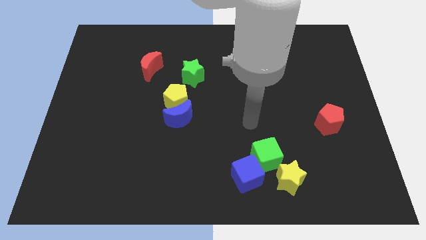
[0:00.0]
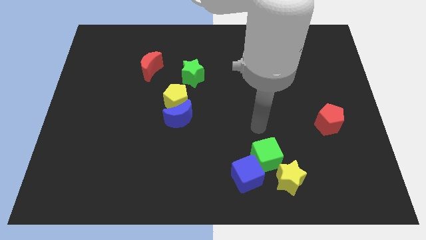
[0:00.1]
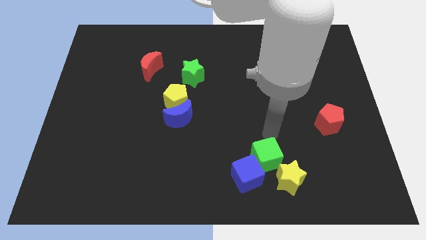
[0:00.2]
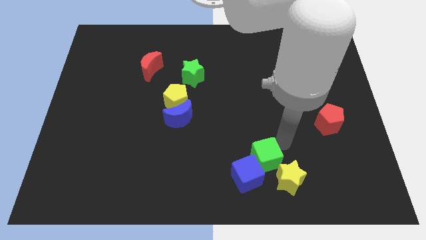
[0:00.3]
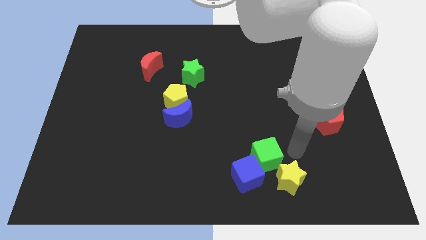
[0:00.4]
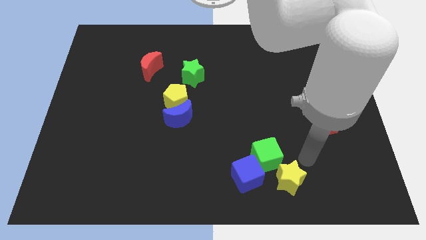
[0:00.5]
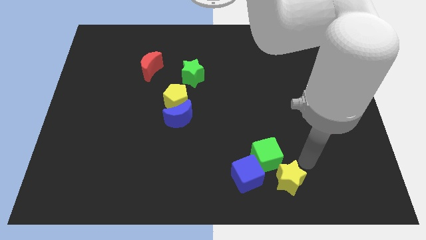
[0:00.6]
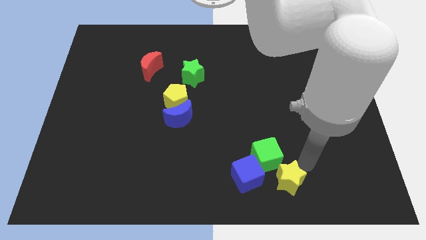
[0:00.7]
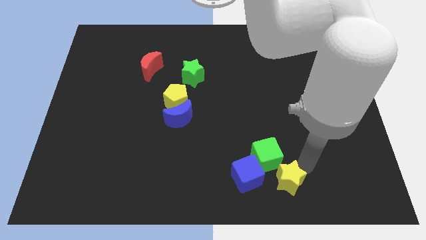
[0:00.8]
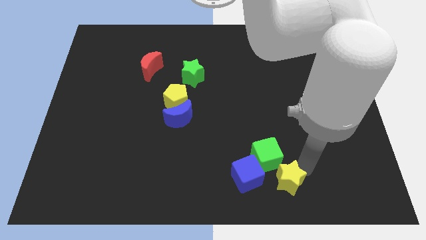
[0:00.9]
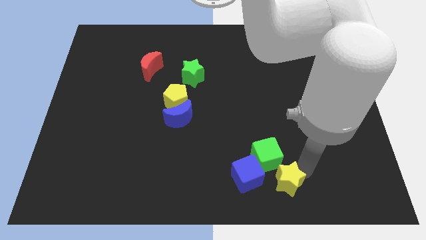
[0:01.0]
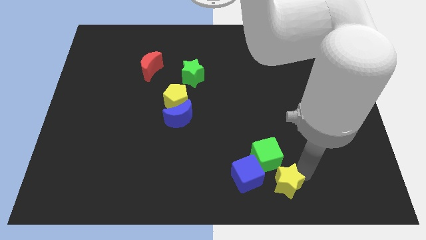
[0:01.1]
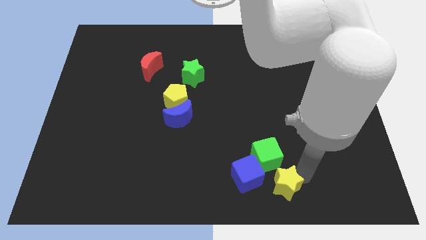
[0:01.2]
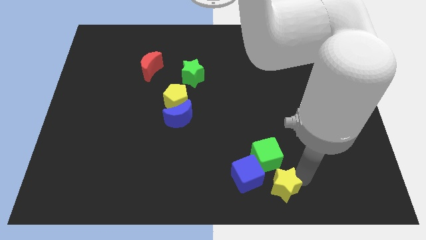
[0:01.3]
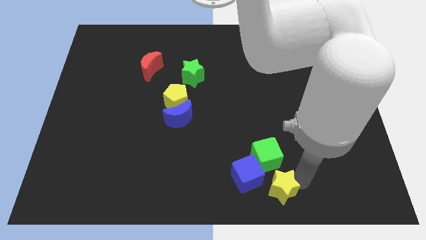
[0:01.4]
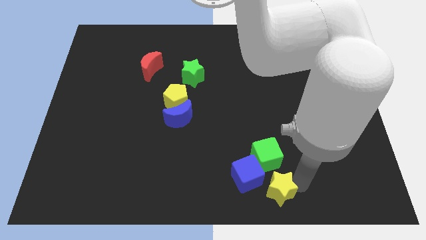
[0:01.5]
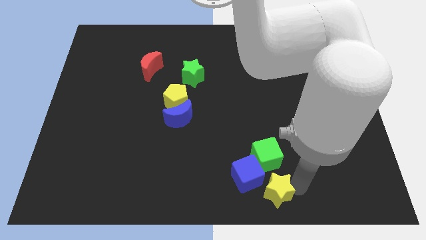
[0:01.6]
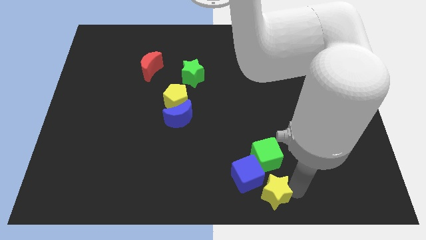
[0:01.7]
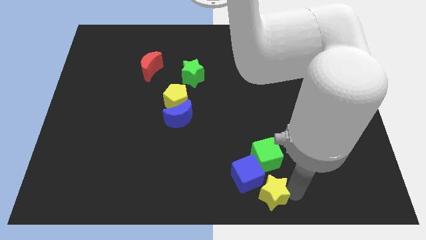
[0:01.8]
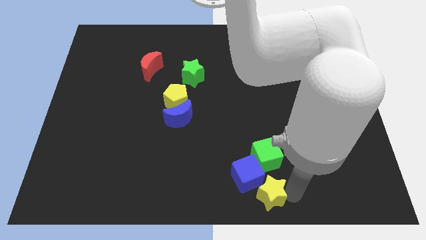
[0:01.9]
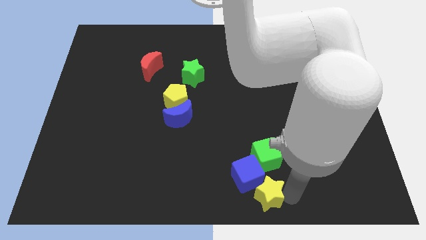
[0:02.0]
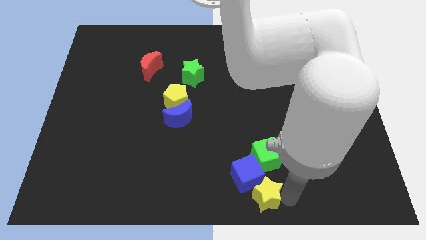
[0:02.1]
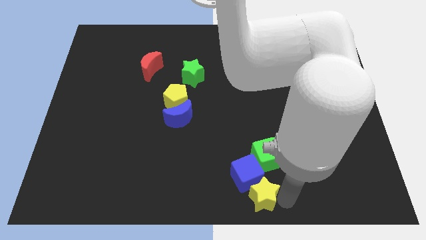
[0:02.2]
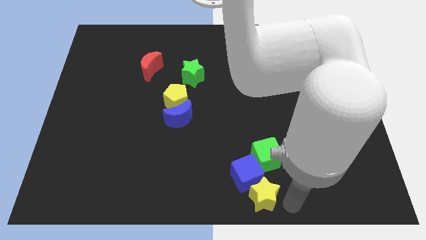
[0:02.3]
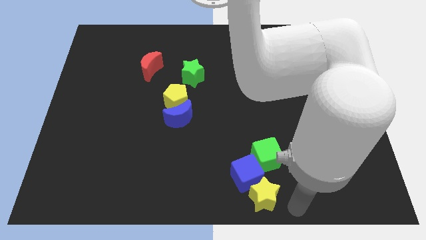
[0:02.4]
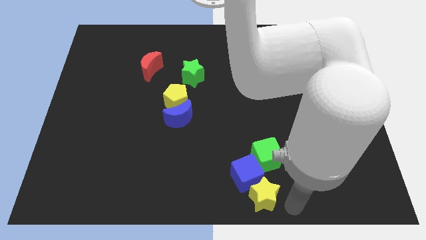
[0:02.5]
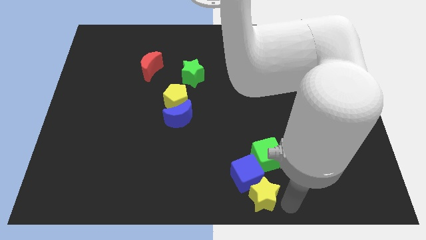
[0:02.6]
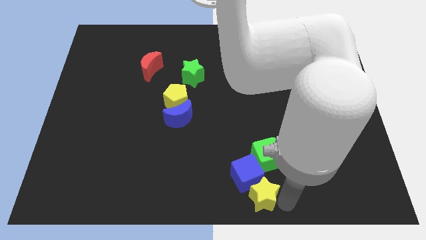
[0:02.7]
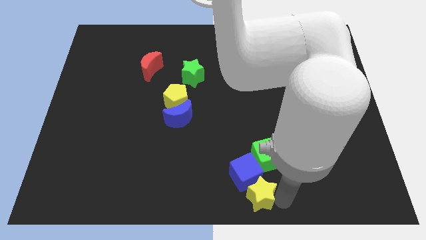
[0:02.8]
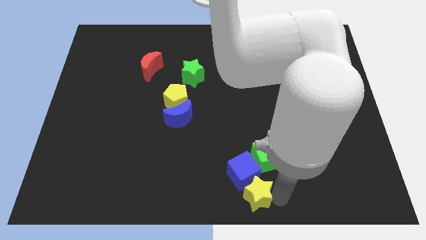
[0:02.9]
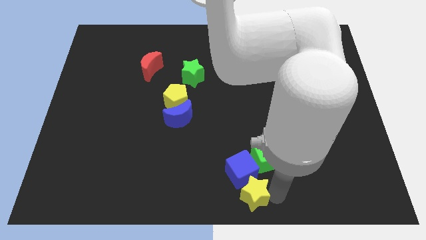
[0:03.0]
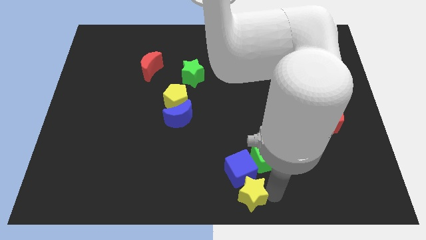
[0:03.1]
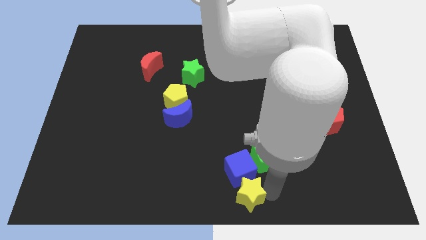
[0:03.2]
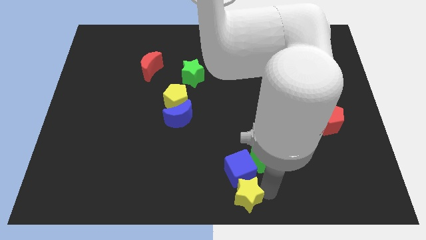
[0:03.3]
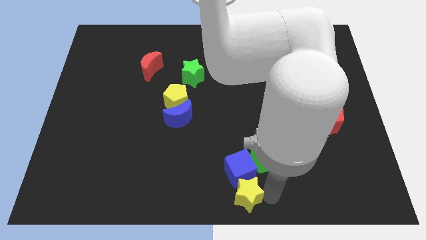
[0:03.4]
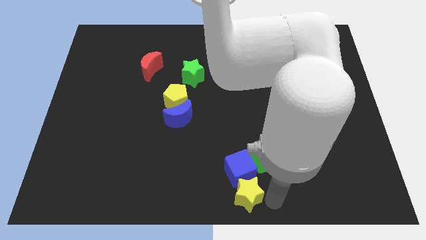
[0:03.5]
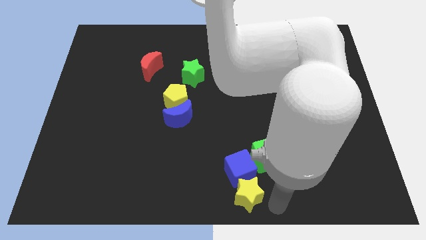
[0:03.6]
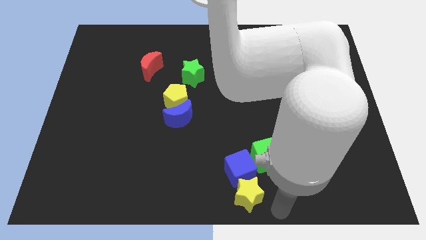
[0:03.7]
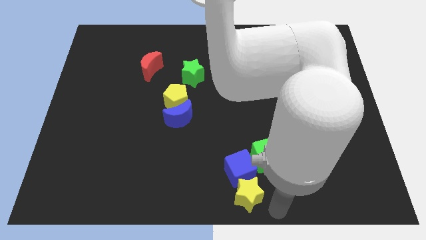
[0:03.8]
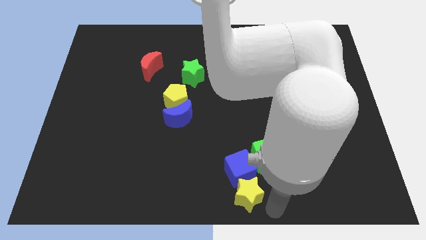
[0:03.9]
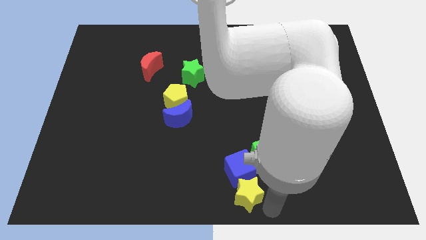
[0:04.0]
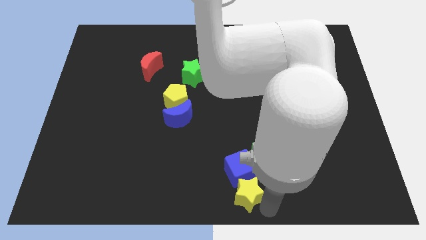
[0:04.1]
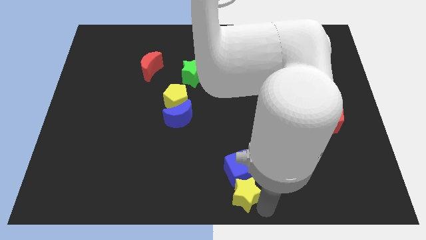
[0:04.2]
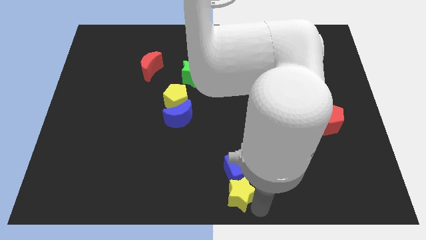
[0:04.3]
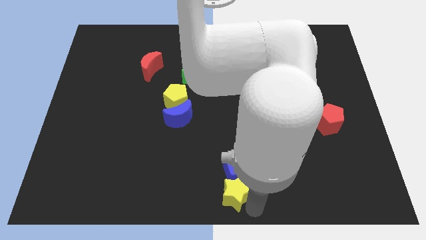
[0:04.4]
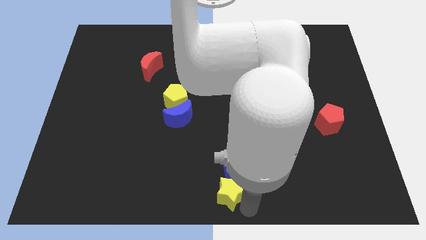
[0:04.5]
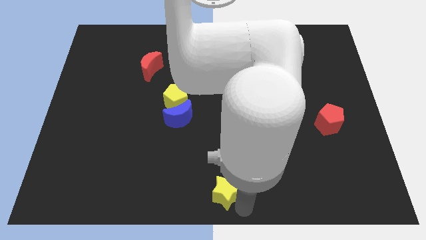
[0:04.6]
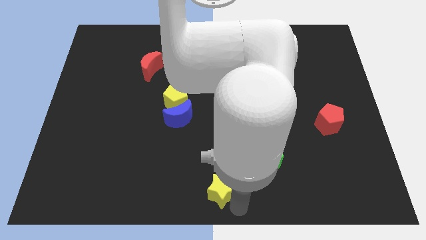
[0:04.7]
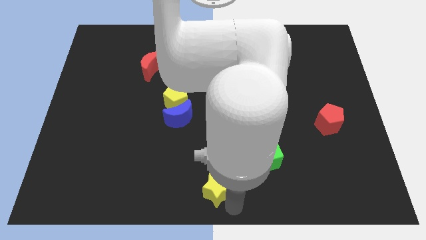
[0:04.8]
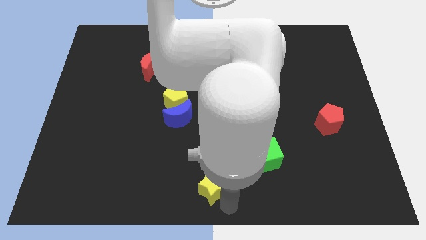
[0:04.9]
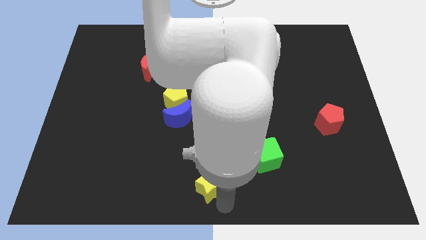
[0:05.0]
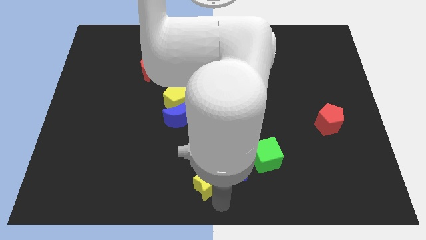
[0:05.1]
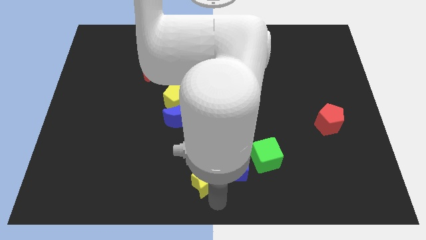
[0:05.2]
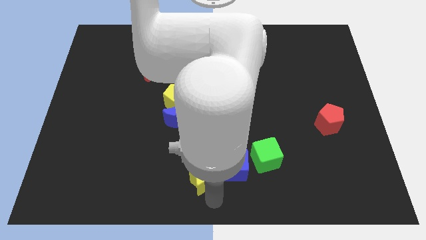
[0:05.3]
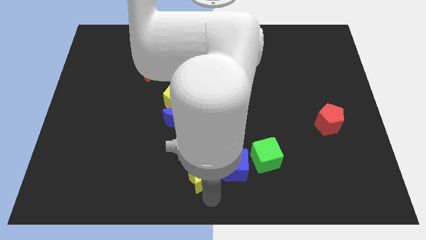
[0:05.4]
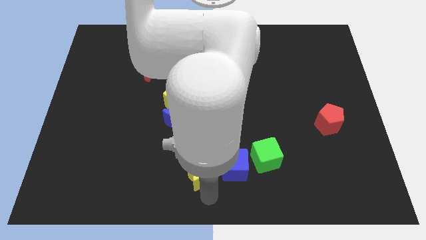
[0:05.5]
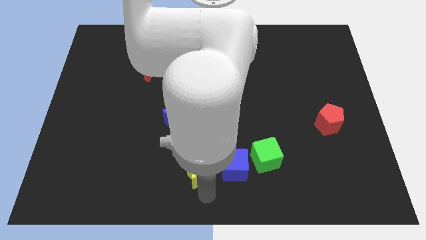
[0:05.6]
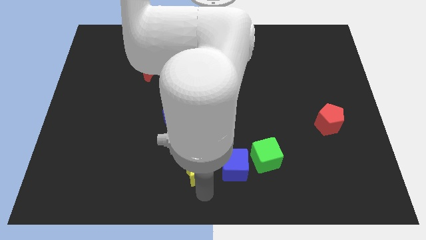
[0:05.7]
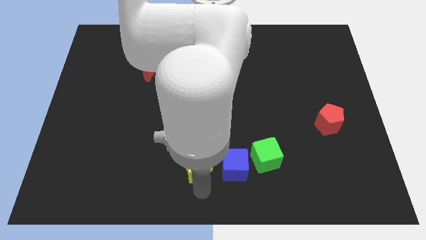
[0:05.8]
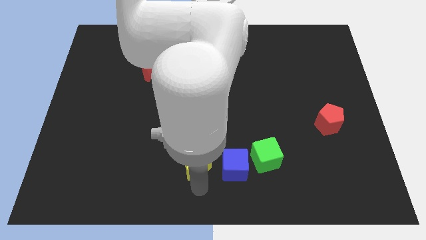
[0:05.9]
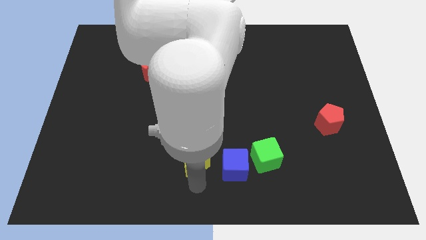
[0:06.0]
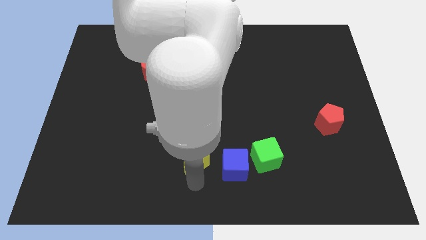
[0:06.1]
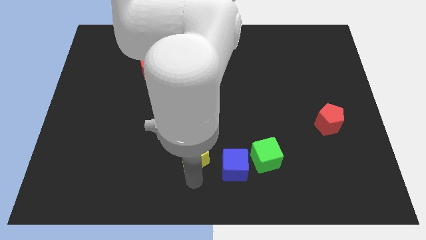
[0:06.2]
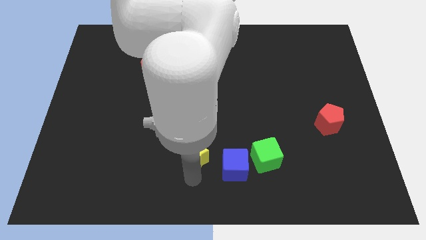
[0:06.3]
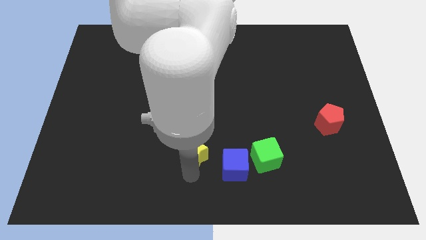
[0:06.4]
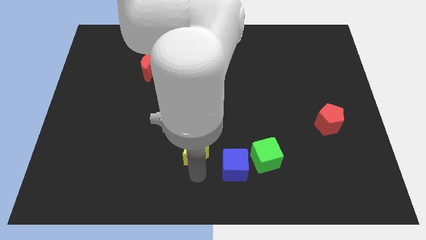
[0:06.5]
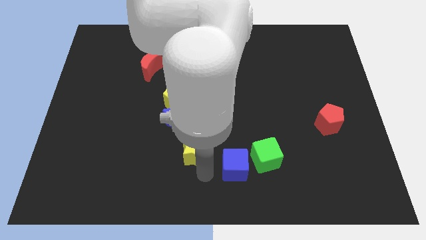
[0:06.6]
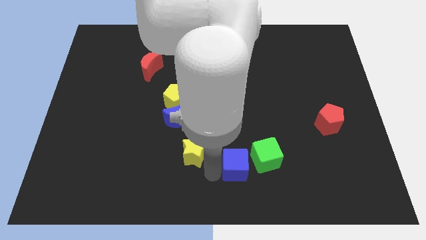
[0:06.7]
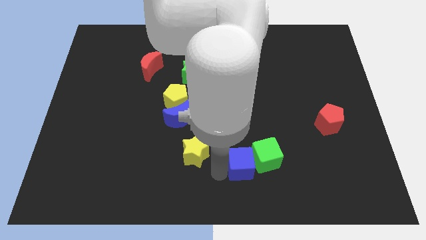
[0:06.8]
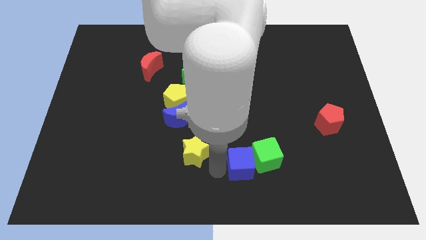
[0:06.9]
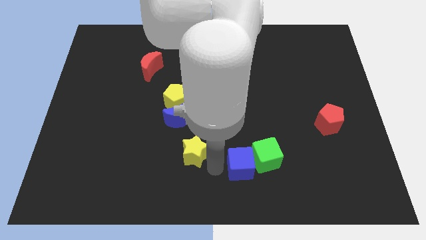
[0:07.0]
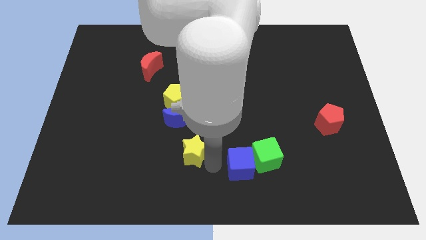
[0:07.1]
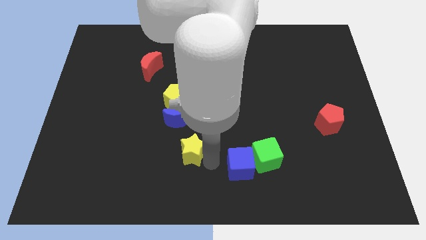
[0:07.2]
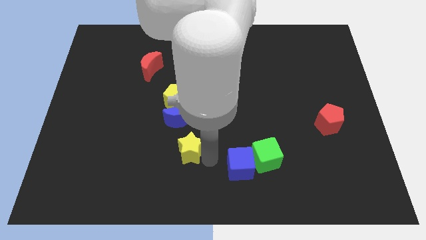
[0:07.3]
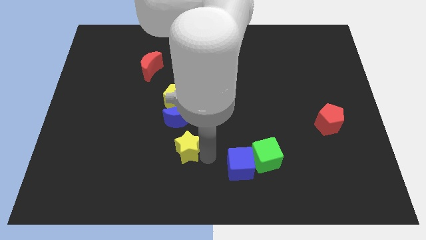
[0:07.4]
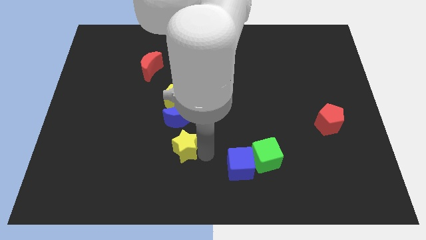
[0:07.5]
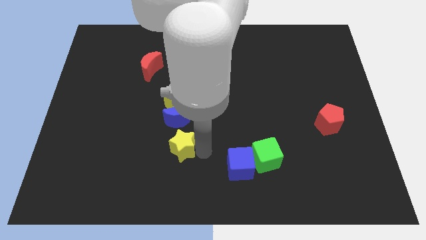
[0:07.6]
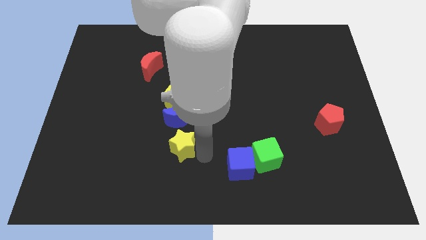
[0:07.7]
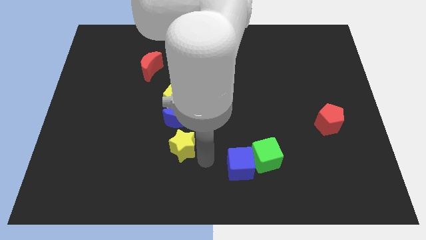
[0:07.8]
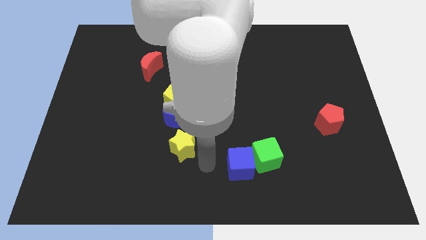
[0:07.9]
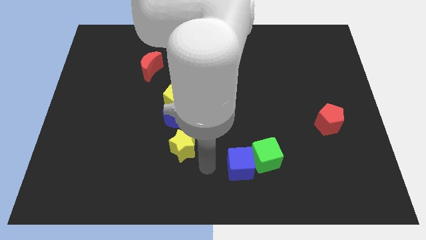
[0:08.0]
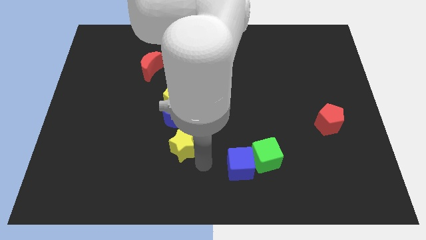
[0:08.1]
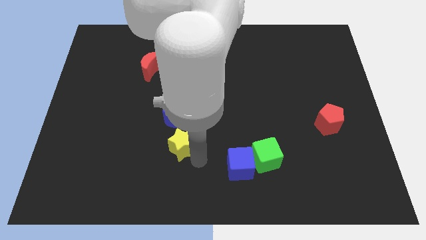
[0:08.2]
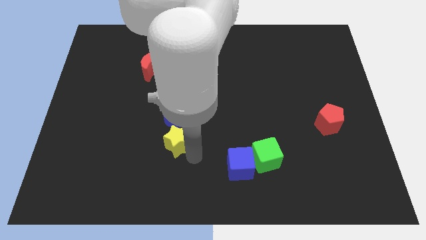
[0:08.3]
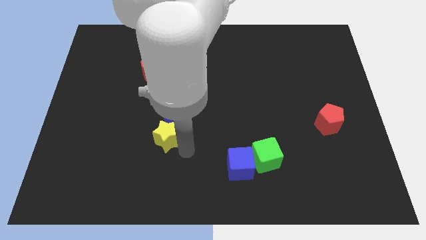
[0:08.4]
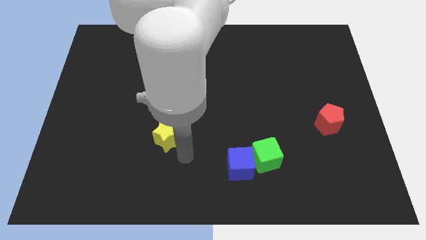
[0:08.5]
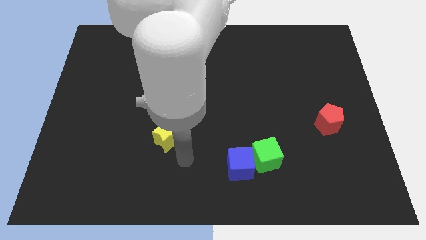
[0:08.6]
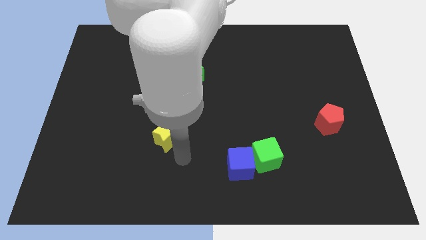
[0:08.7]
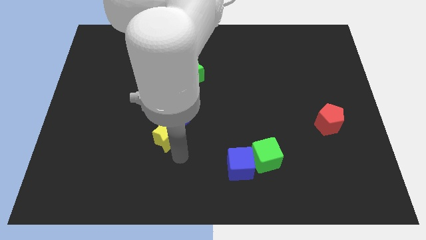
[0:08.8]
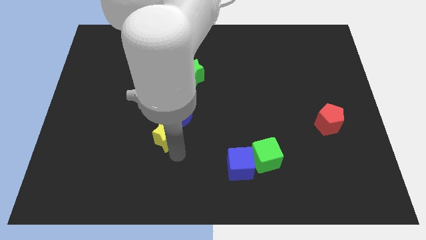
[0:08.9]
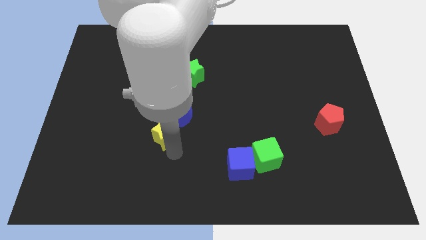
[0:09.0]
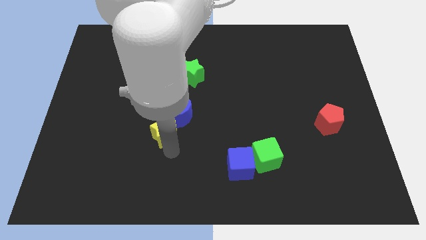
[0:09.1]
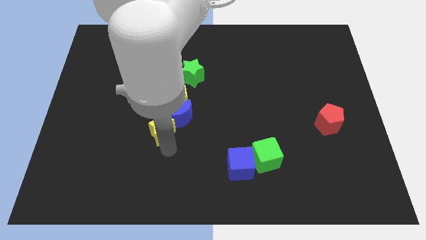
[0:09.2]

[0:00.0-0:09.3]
put the yellow star to the bottom left side of the yellow pentagon
